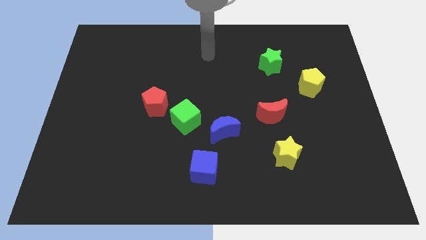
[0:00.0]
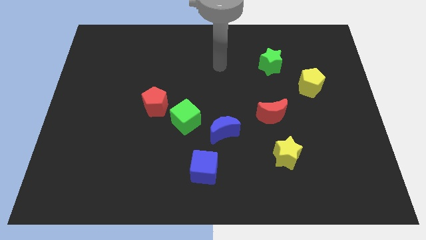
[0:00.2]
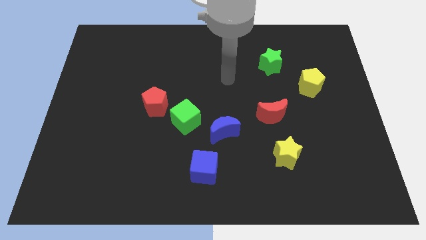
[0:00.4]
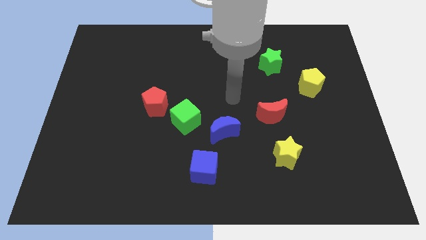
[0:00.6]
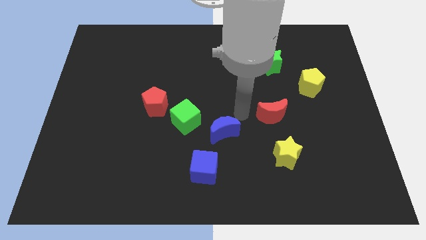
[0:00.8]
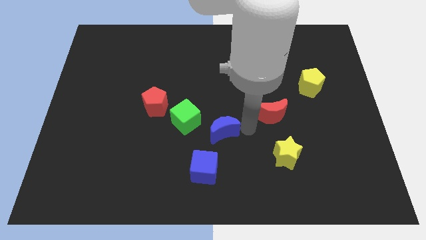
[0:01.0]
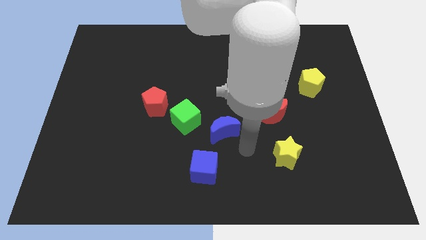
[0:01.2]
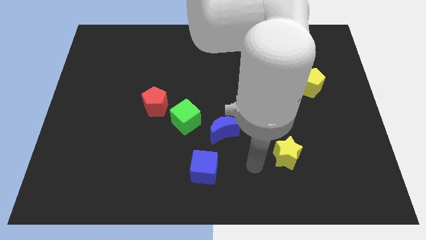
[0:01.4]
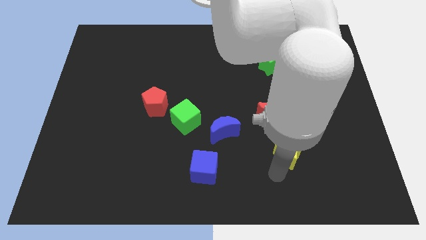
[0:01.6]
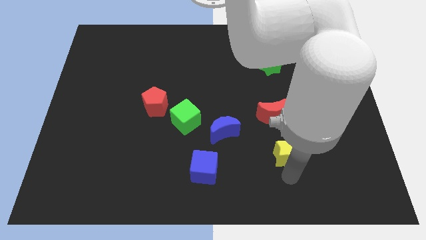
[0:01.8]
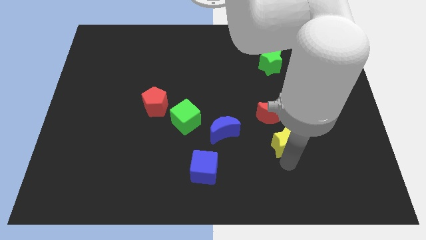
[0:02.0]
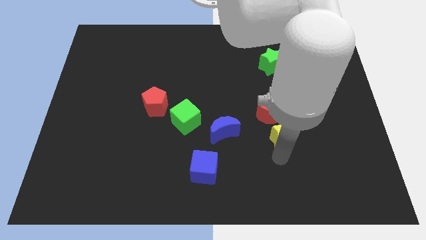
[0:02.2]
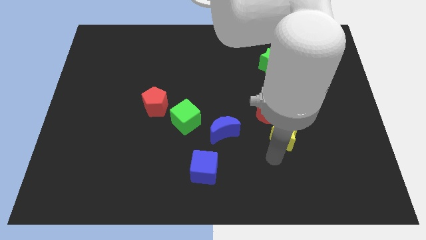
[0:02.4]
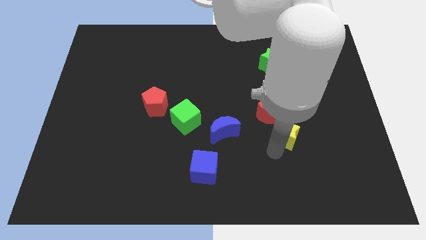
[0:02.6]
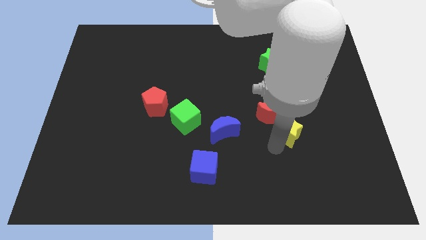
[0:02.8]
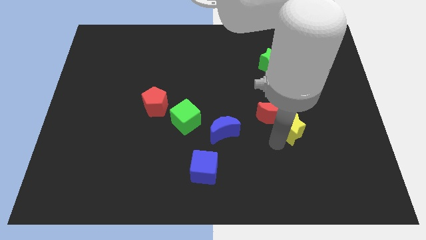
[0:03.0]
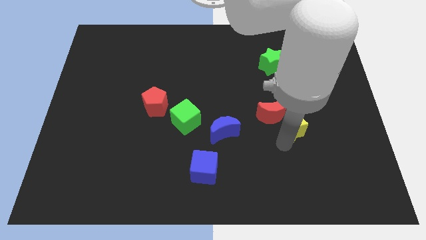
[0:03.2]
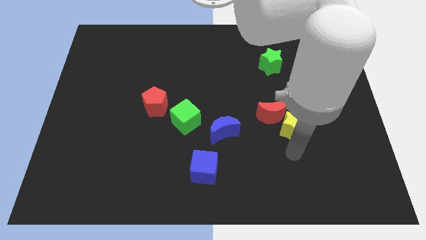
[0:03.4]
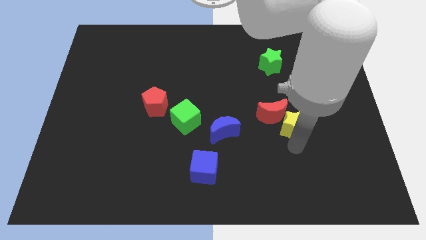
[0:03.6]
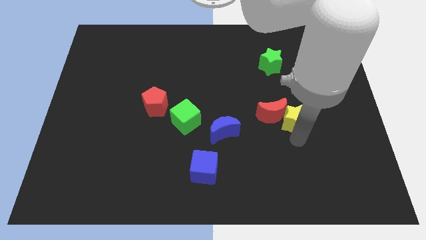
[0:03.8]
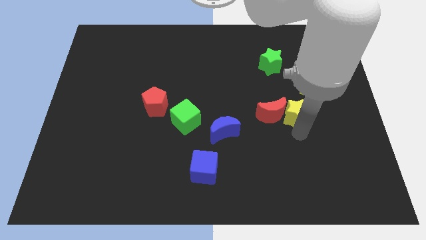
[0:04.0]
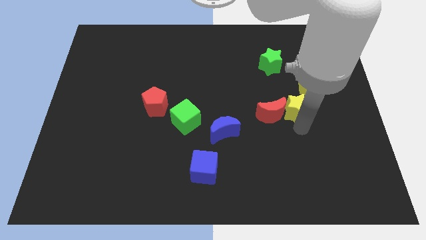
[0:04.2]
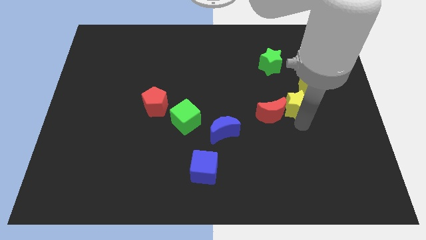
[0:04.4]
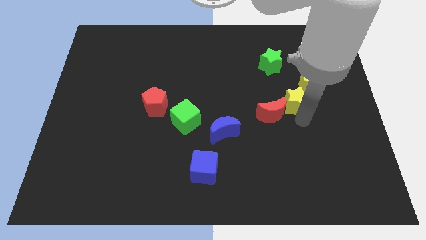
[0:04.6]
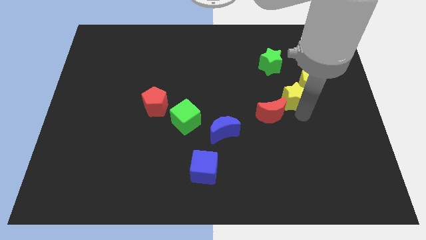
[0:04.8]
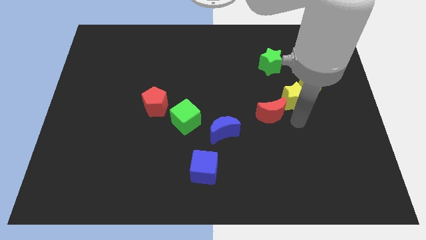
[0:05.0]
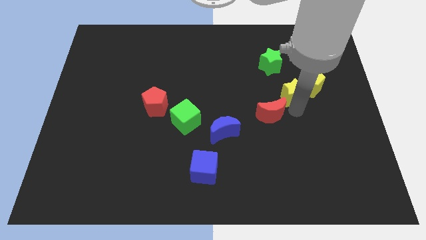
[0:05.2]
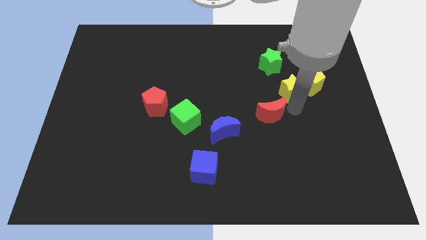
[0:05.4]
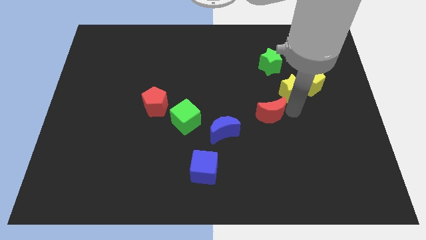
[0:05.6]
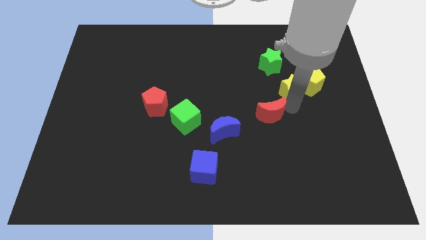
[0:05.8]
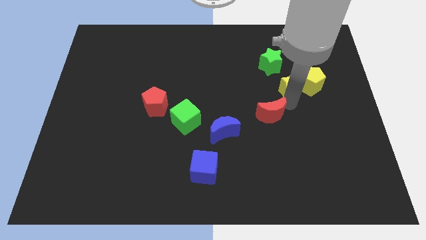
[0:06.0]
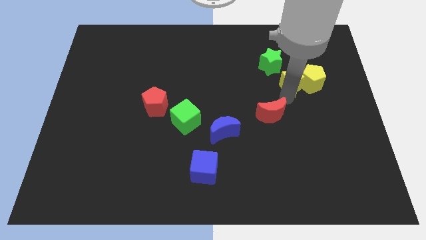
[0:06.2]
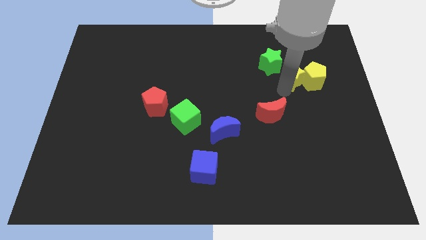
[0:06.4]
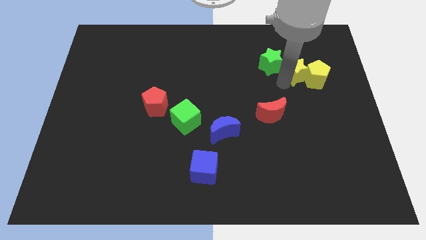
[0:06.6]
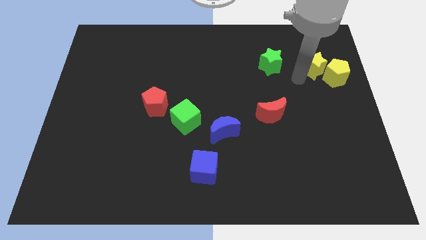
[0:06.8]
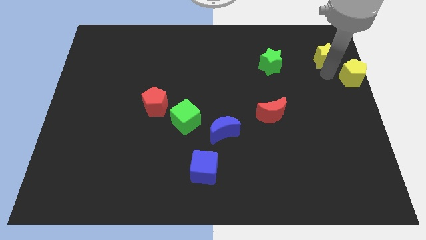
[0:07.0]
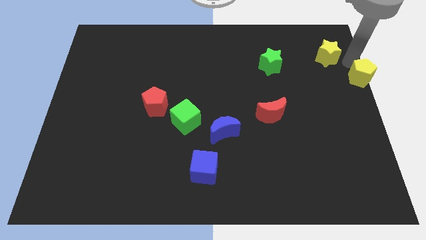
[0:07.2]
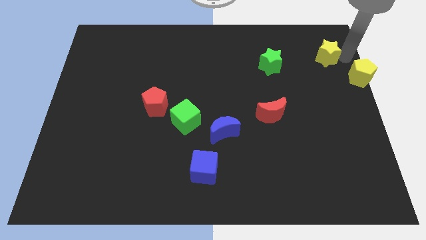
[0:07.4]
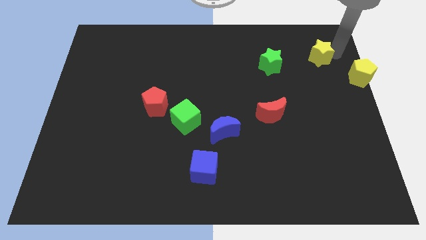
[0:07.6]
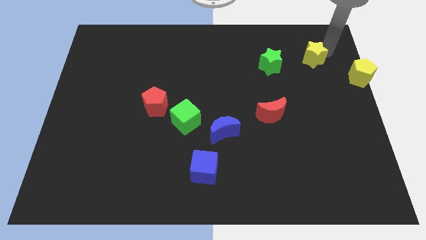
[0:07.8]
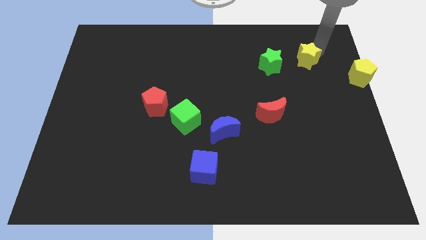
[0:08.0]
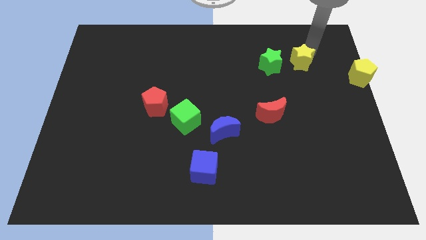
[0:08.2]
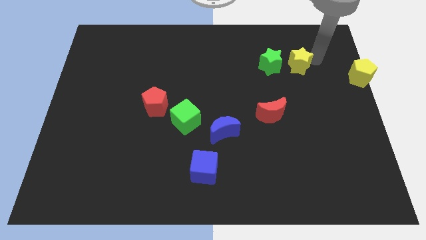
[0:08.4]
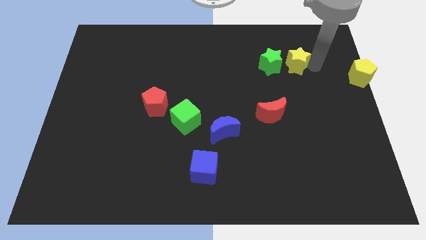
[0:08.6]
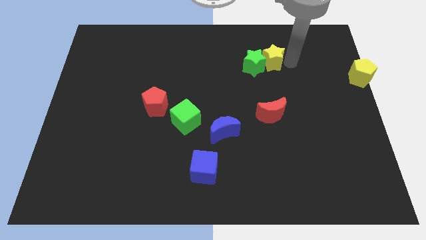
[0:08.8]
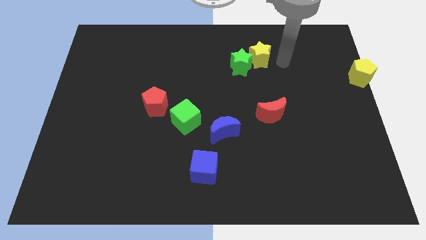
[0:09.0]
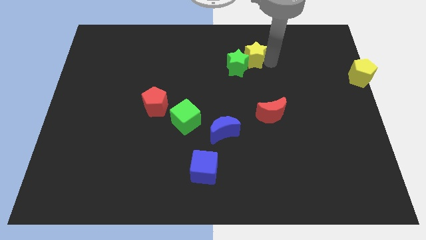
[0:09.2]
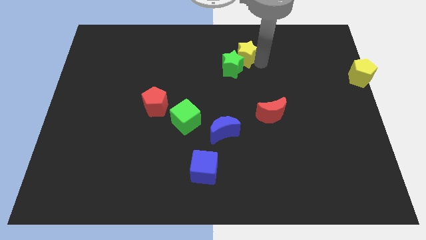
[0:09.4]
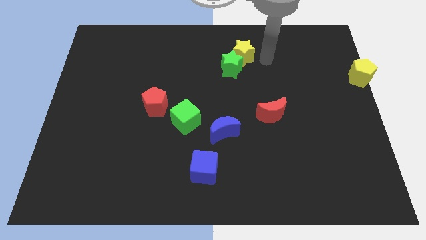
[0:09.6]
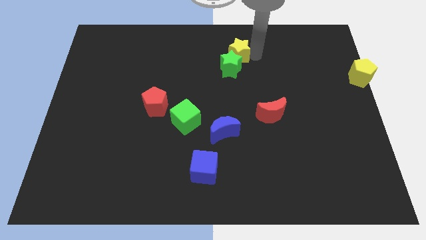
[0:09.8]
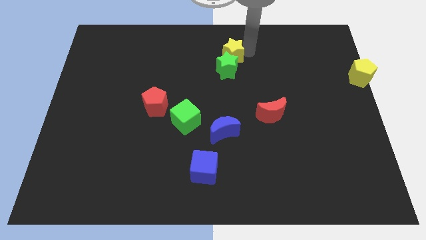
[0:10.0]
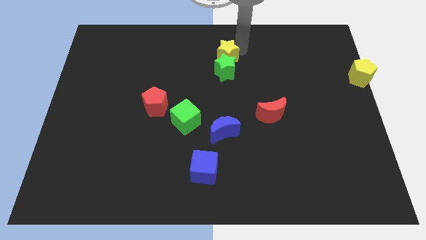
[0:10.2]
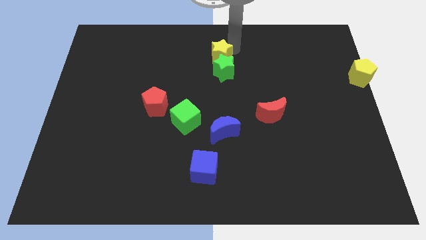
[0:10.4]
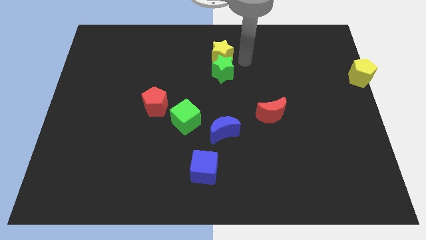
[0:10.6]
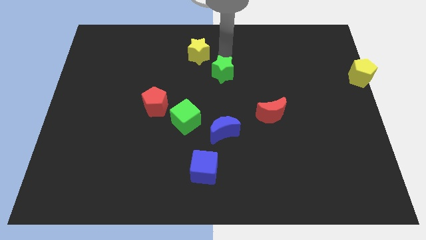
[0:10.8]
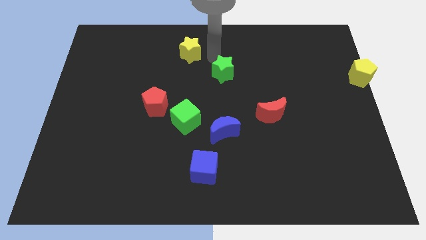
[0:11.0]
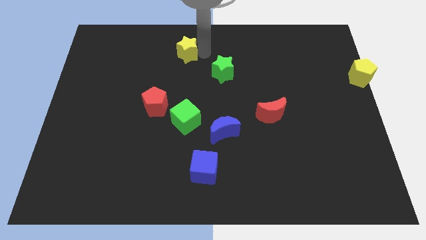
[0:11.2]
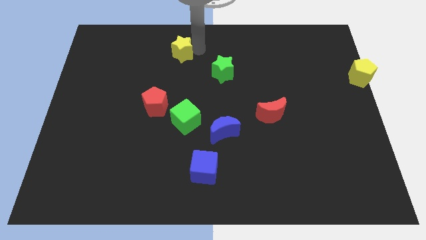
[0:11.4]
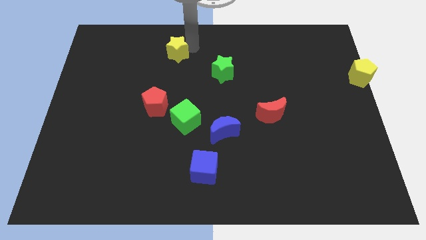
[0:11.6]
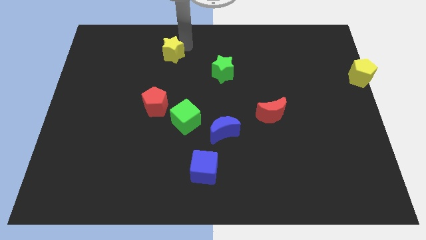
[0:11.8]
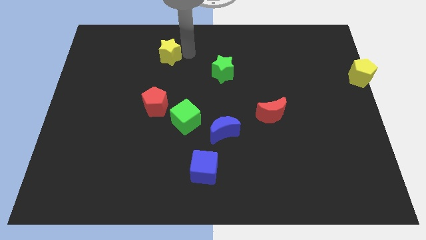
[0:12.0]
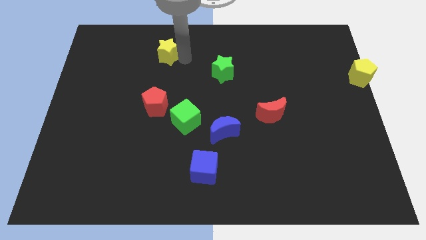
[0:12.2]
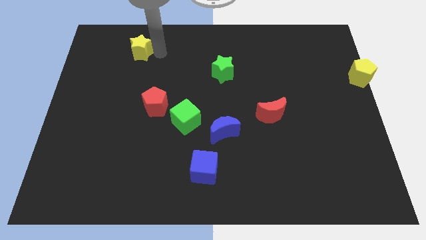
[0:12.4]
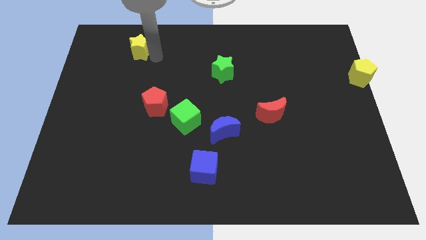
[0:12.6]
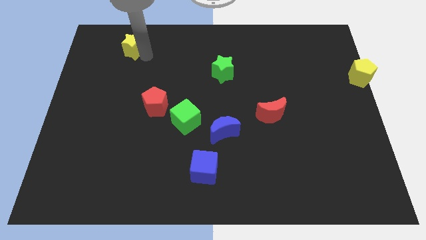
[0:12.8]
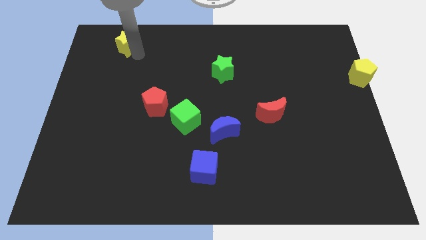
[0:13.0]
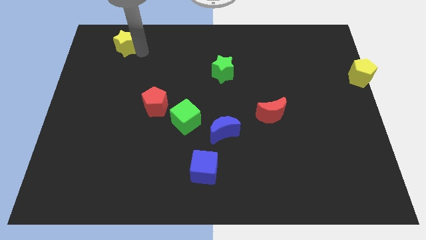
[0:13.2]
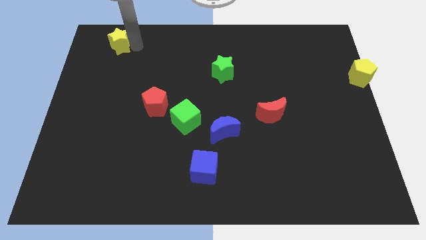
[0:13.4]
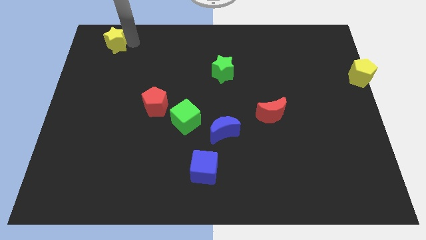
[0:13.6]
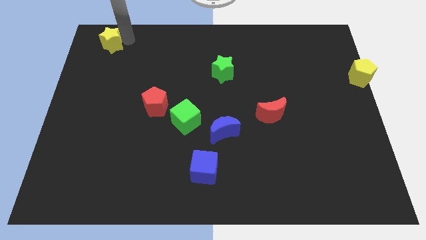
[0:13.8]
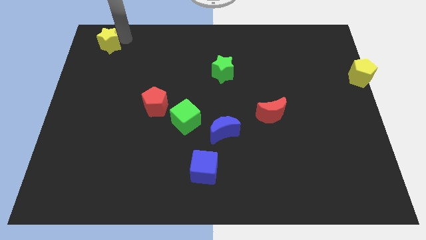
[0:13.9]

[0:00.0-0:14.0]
move the yellow star to the top left corner
